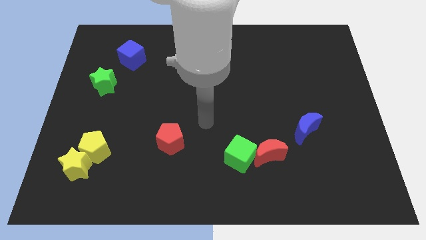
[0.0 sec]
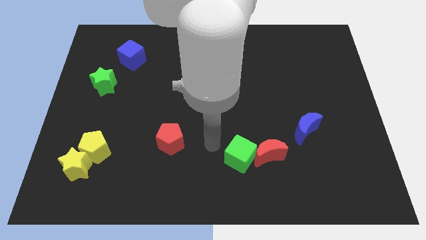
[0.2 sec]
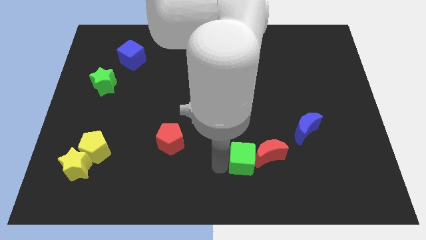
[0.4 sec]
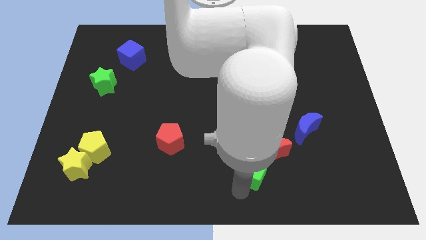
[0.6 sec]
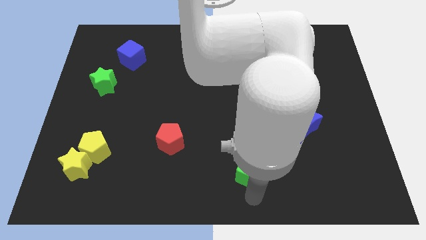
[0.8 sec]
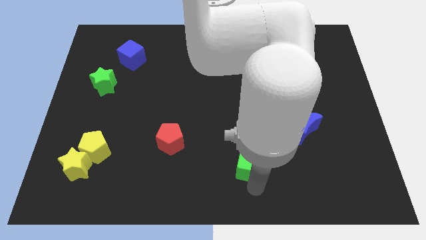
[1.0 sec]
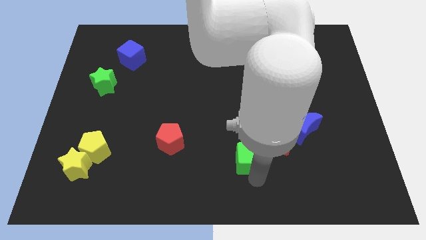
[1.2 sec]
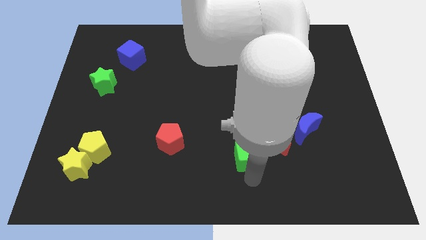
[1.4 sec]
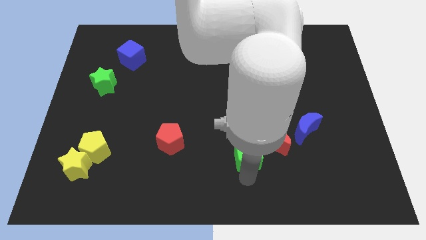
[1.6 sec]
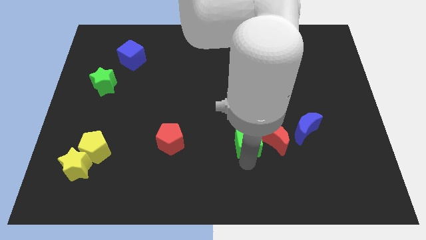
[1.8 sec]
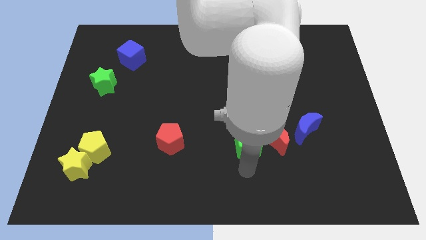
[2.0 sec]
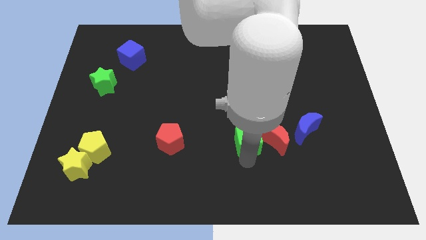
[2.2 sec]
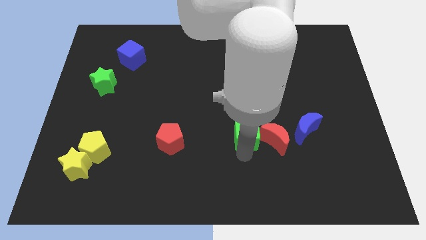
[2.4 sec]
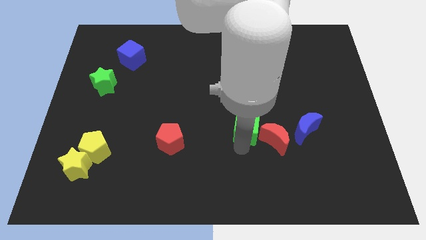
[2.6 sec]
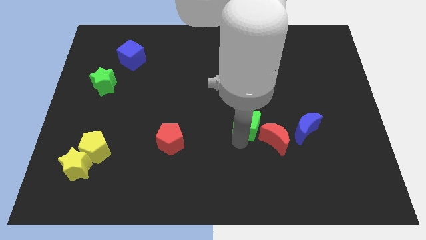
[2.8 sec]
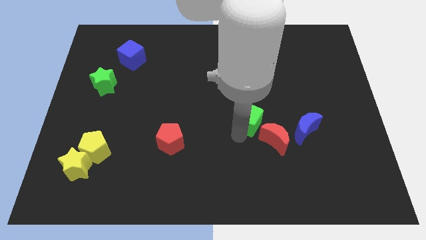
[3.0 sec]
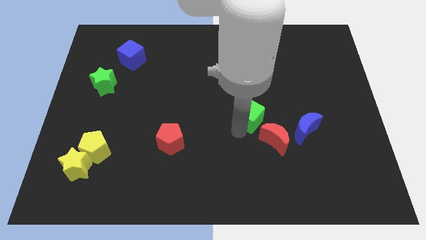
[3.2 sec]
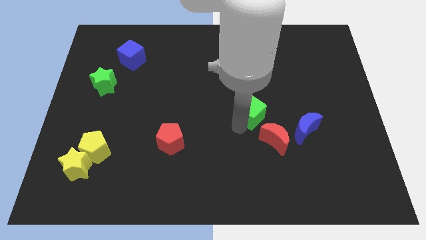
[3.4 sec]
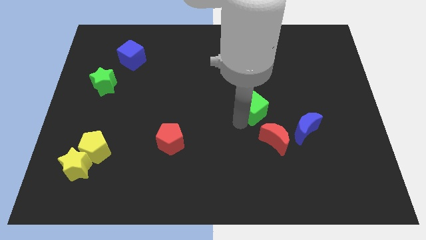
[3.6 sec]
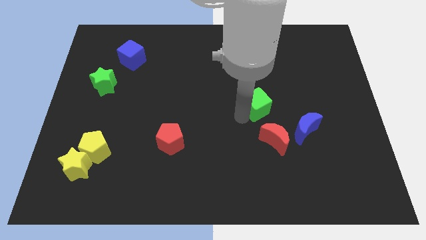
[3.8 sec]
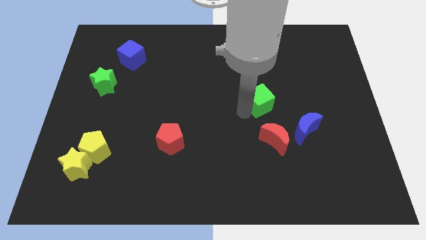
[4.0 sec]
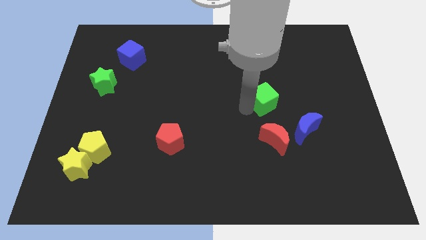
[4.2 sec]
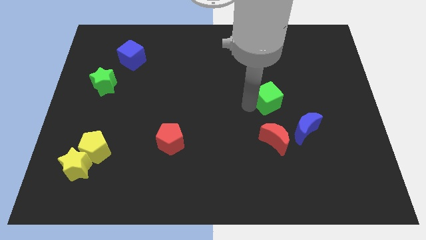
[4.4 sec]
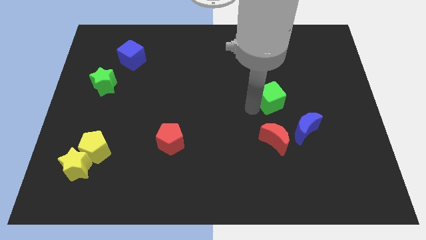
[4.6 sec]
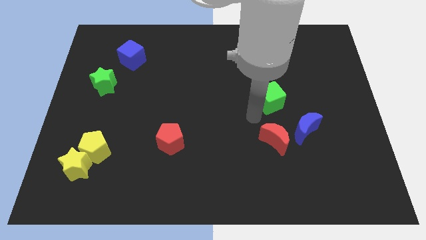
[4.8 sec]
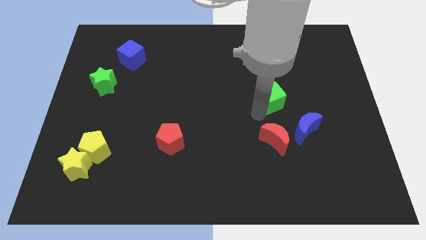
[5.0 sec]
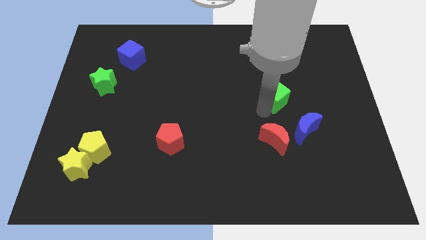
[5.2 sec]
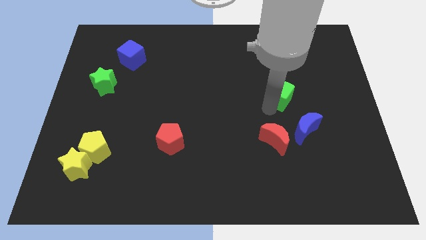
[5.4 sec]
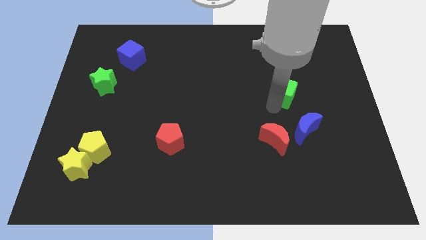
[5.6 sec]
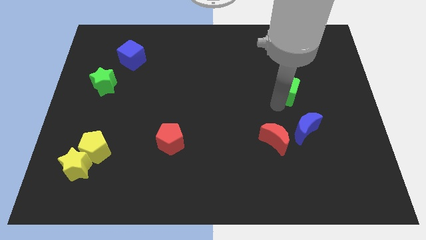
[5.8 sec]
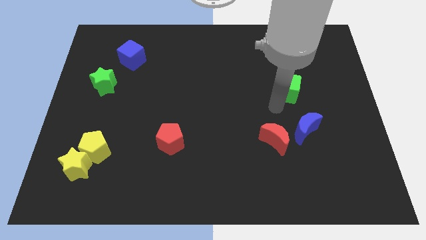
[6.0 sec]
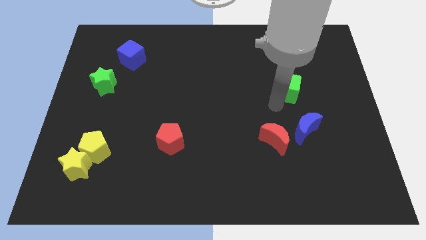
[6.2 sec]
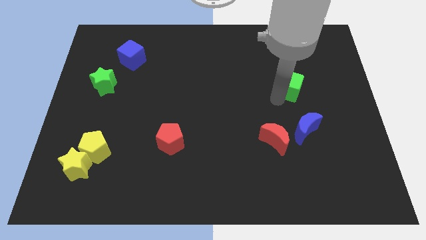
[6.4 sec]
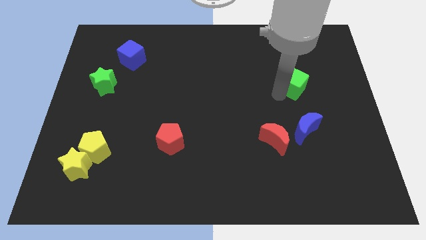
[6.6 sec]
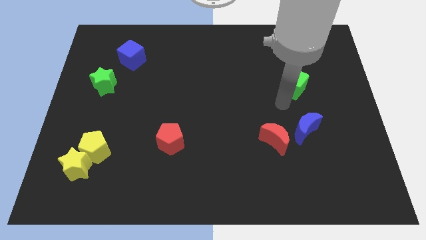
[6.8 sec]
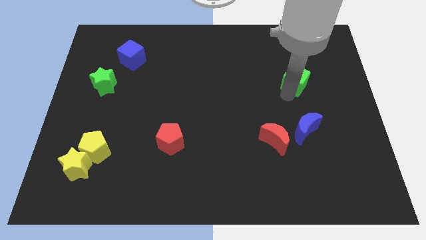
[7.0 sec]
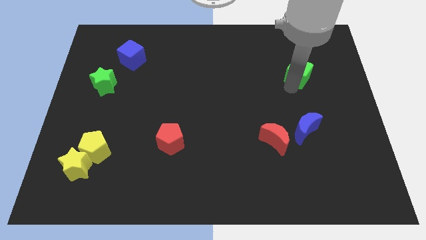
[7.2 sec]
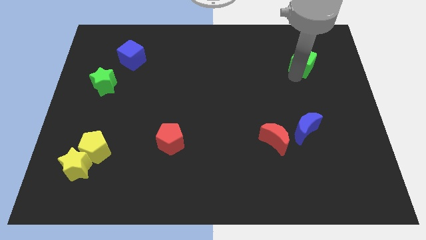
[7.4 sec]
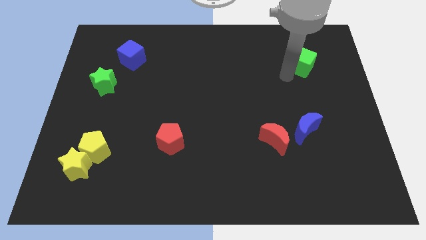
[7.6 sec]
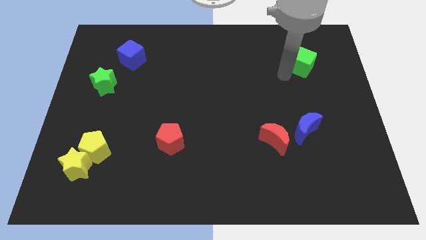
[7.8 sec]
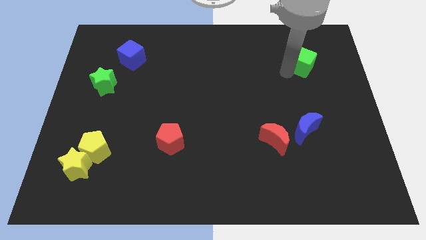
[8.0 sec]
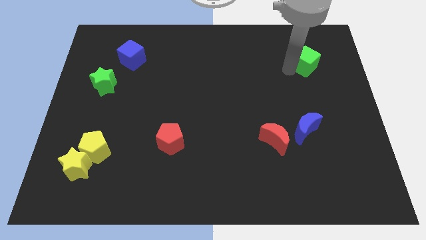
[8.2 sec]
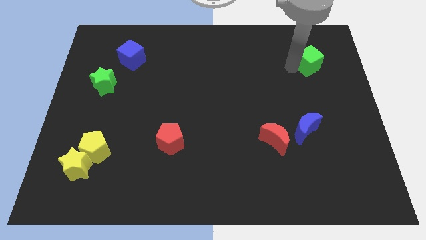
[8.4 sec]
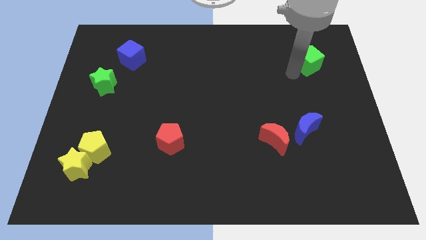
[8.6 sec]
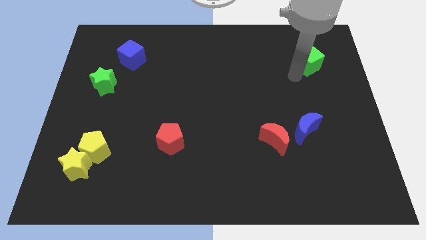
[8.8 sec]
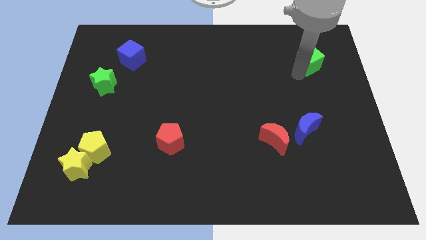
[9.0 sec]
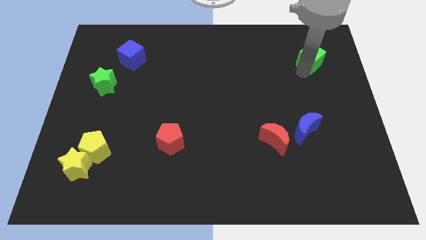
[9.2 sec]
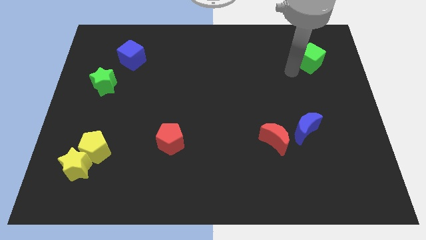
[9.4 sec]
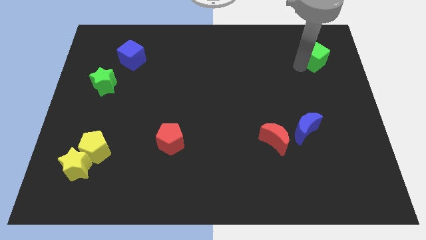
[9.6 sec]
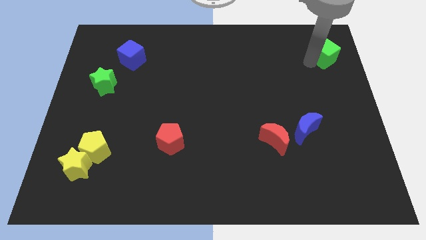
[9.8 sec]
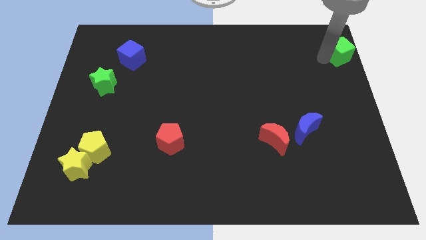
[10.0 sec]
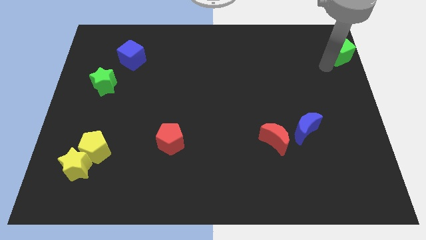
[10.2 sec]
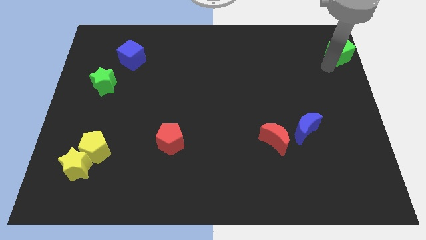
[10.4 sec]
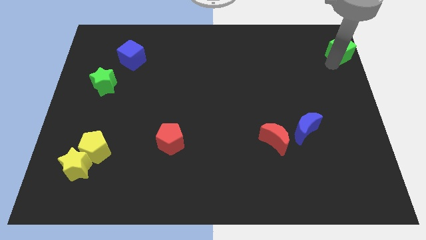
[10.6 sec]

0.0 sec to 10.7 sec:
push the green cube to the upper right corner
